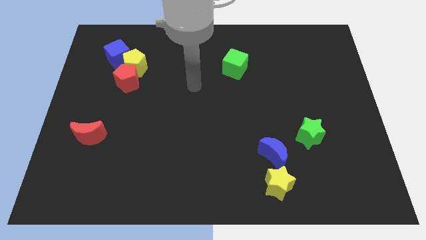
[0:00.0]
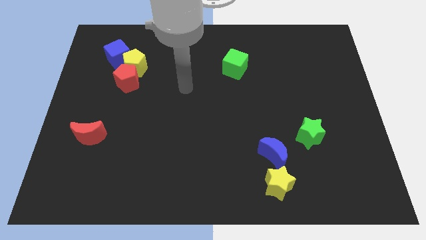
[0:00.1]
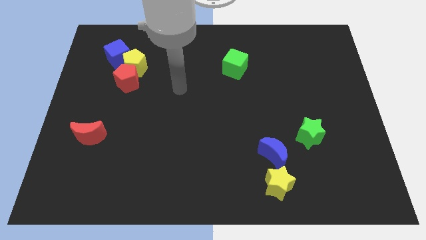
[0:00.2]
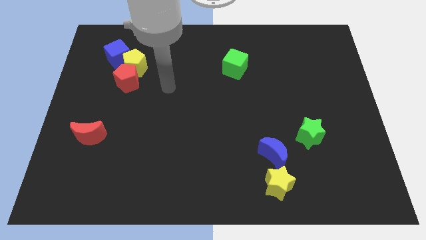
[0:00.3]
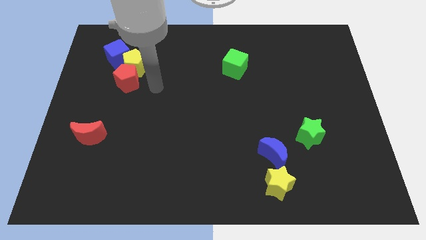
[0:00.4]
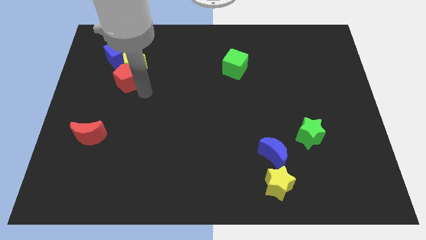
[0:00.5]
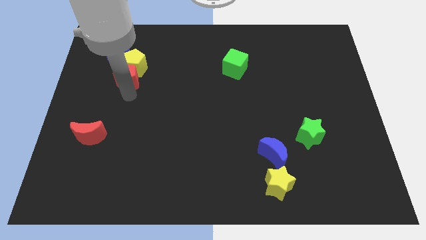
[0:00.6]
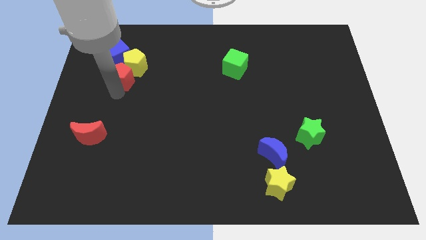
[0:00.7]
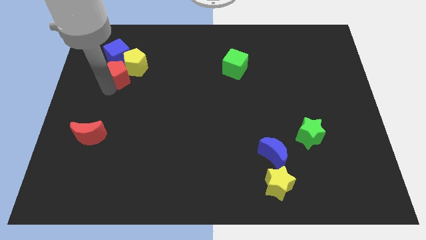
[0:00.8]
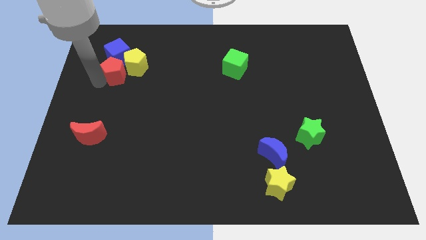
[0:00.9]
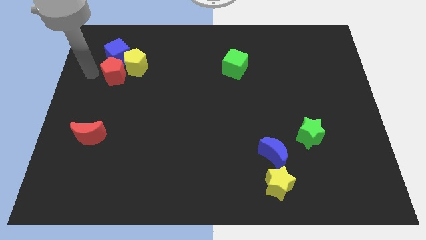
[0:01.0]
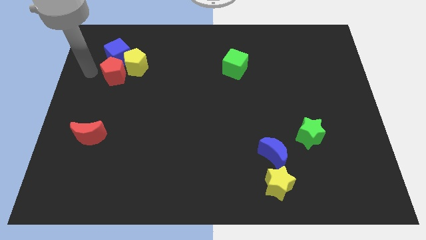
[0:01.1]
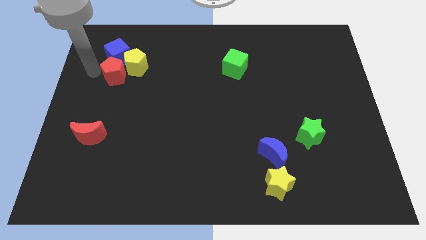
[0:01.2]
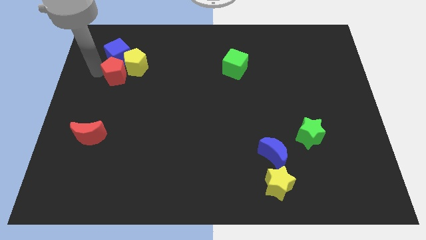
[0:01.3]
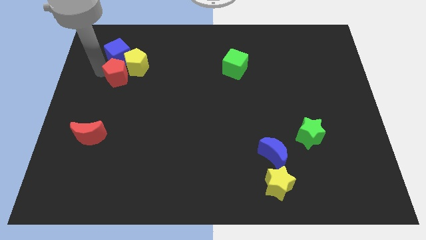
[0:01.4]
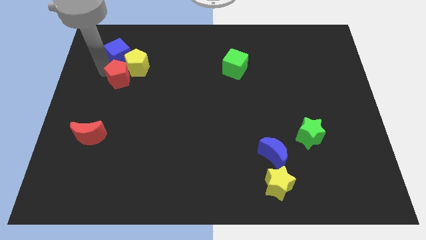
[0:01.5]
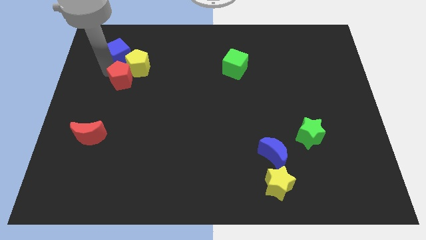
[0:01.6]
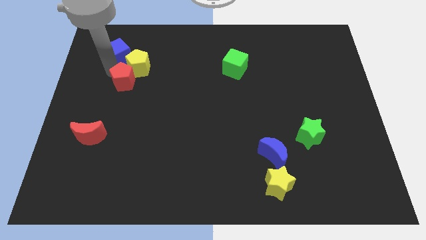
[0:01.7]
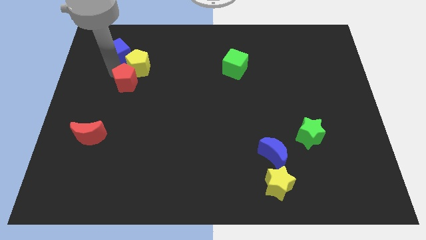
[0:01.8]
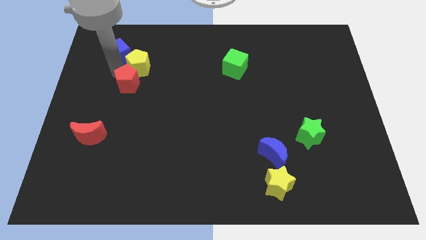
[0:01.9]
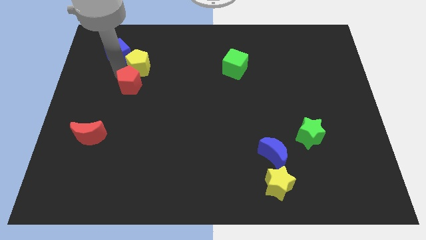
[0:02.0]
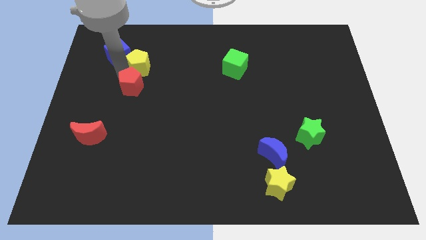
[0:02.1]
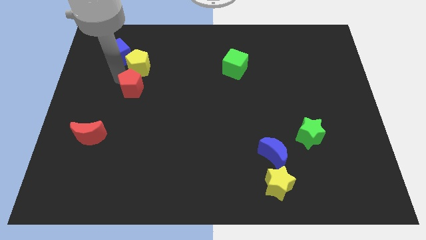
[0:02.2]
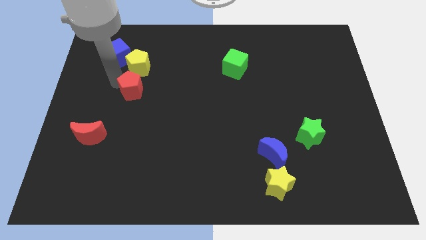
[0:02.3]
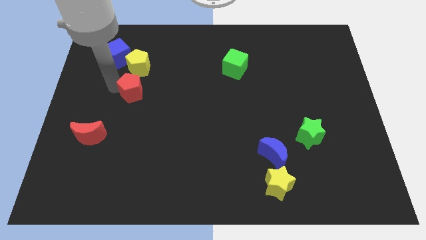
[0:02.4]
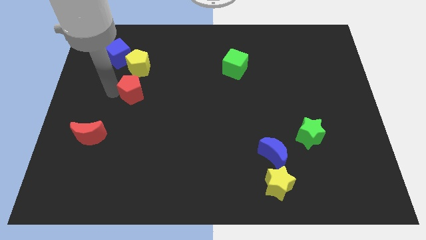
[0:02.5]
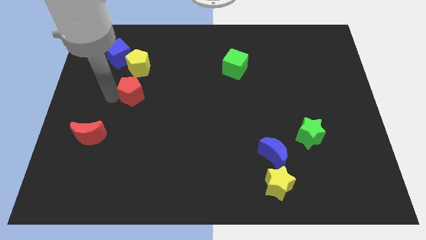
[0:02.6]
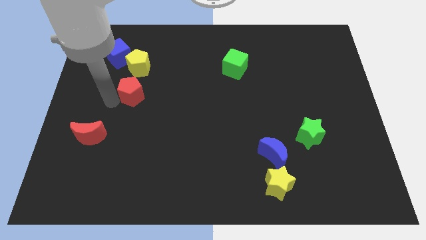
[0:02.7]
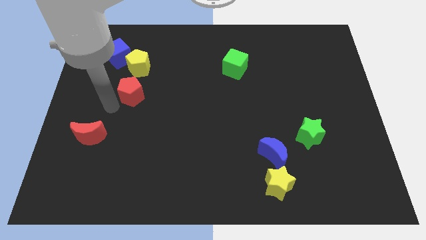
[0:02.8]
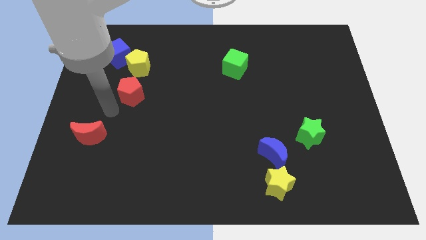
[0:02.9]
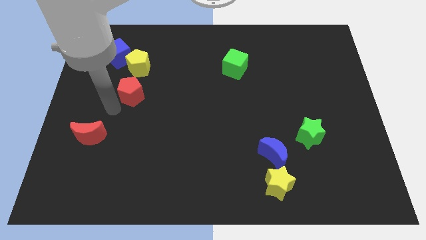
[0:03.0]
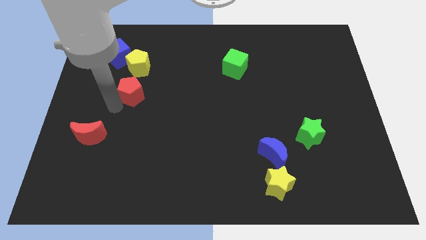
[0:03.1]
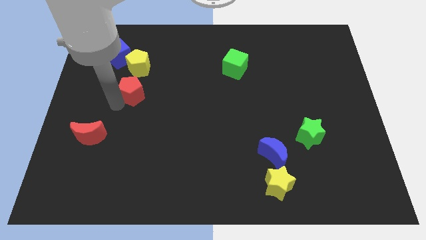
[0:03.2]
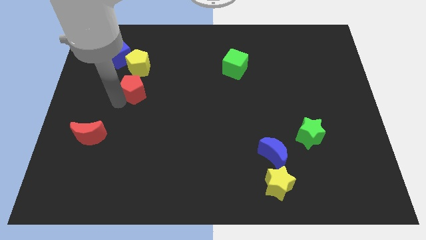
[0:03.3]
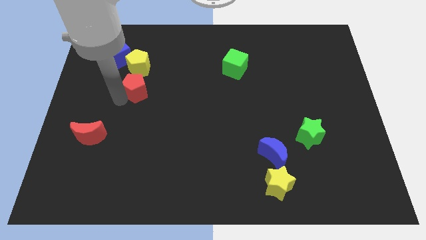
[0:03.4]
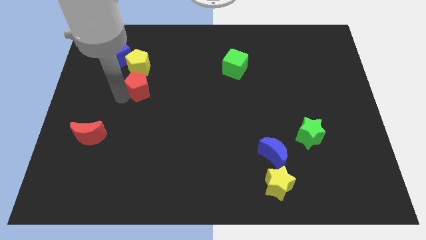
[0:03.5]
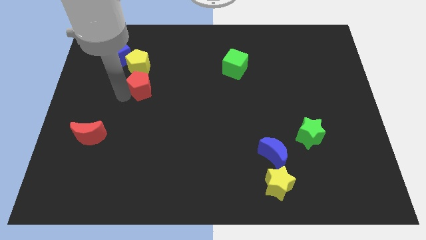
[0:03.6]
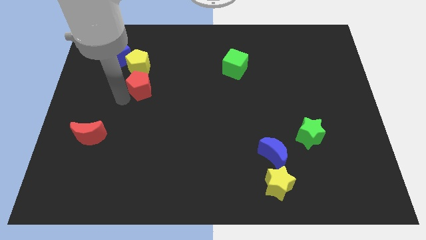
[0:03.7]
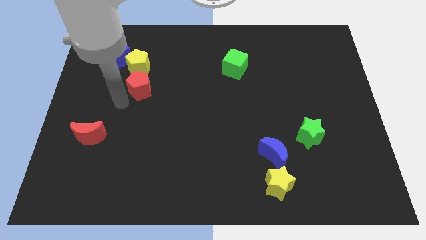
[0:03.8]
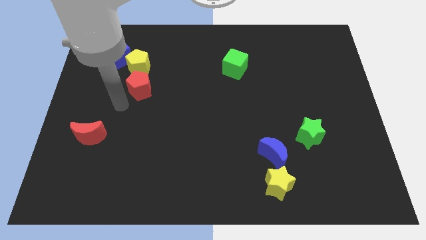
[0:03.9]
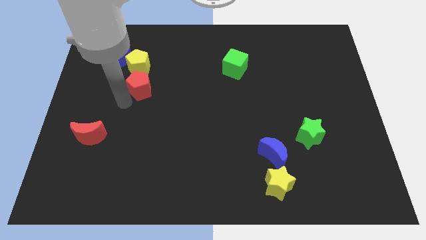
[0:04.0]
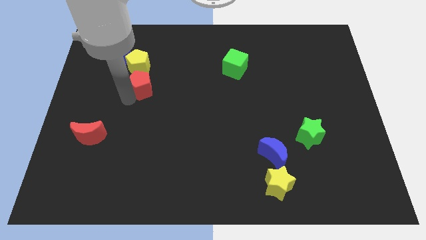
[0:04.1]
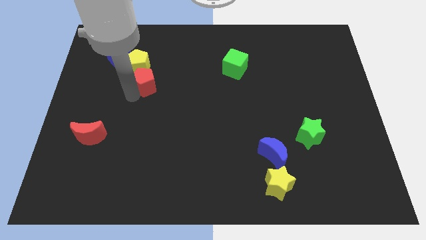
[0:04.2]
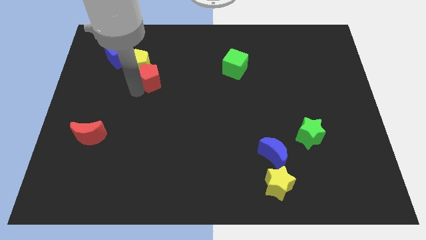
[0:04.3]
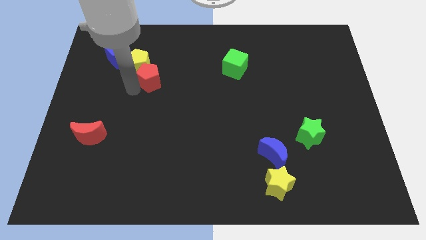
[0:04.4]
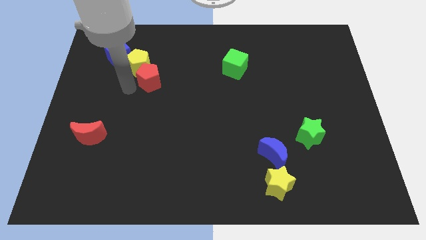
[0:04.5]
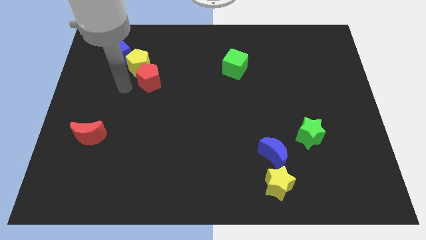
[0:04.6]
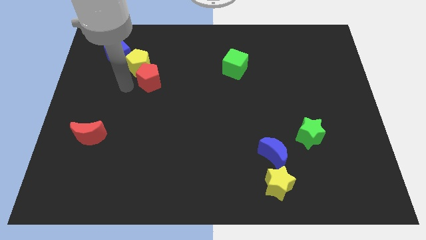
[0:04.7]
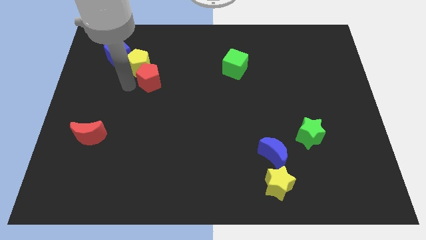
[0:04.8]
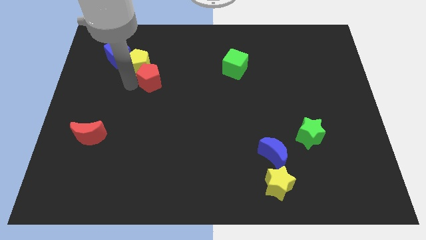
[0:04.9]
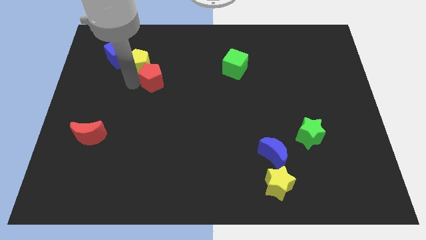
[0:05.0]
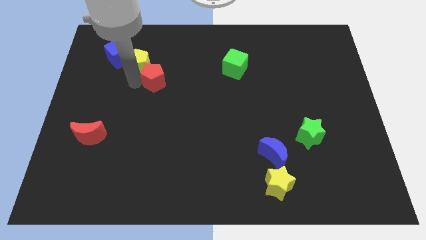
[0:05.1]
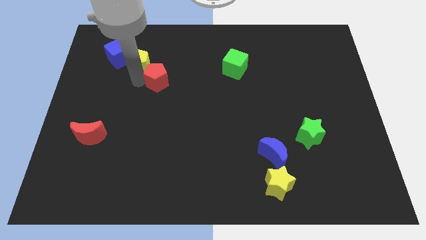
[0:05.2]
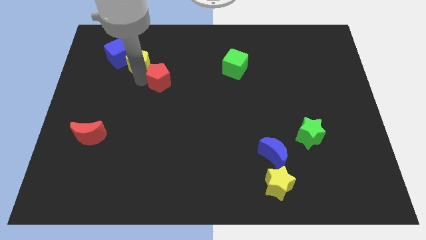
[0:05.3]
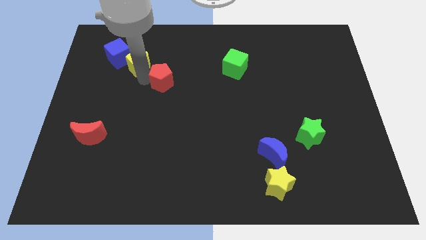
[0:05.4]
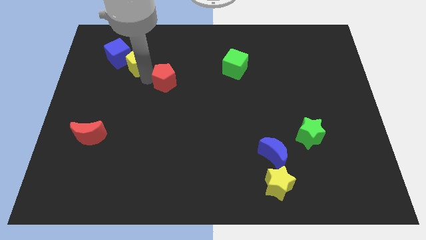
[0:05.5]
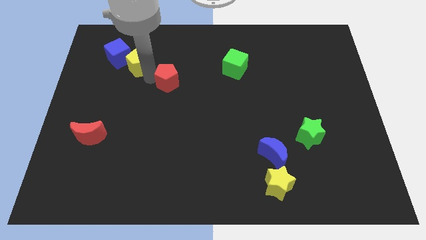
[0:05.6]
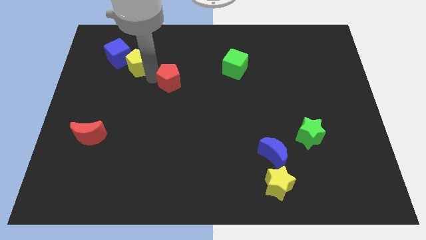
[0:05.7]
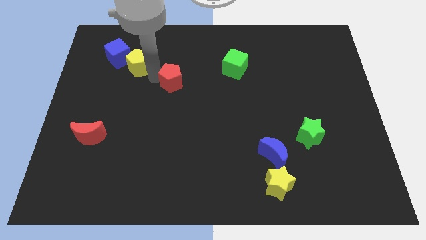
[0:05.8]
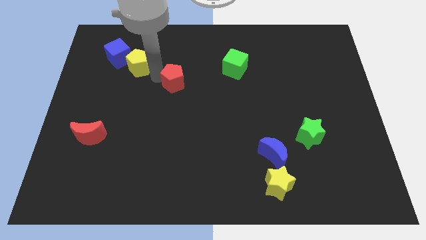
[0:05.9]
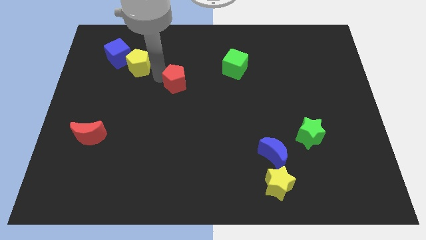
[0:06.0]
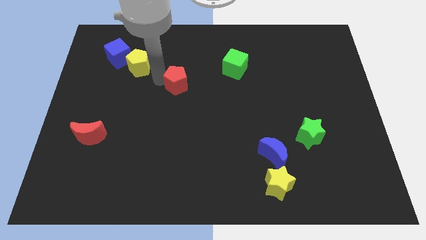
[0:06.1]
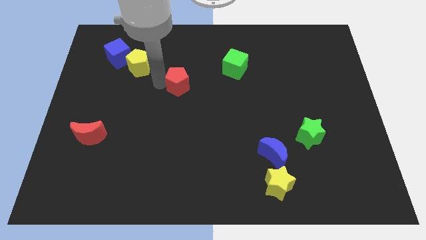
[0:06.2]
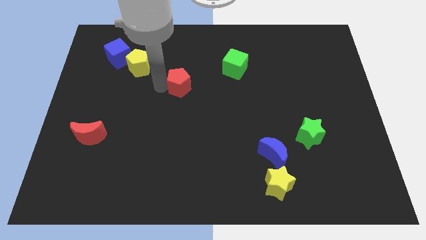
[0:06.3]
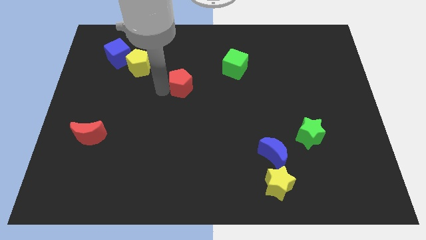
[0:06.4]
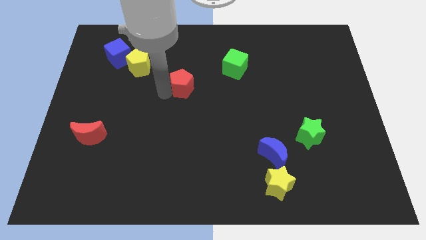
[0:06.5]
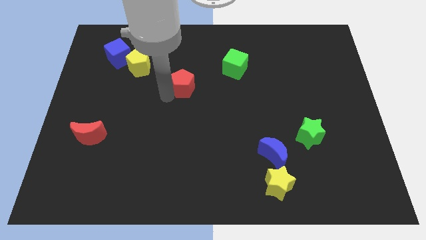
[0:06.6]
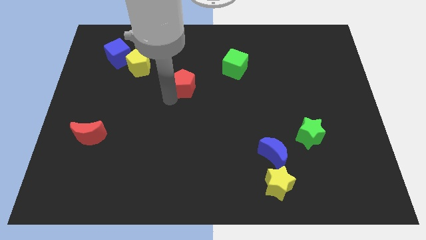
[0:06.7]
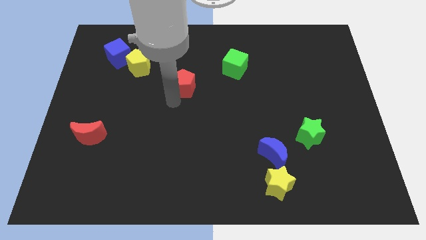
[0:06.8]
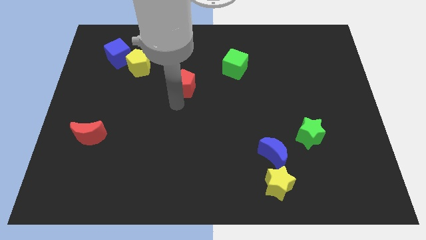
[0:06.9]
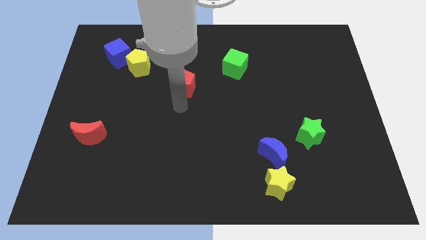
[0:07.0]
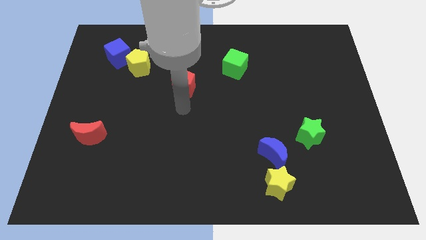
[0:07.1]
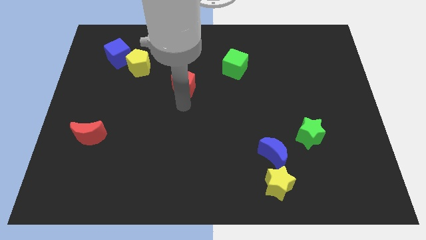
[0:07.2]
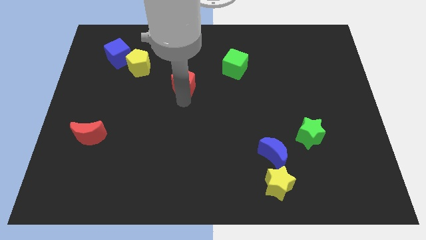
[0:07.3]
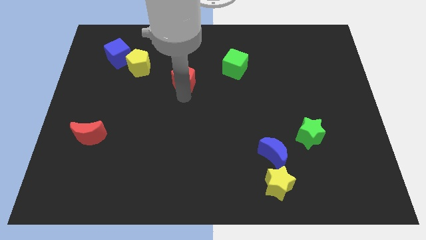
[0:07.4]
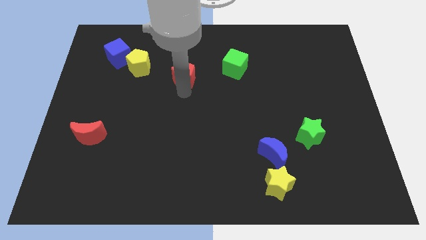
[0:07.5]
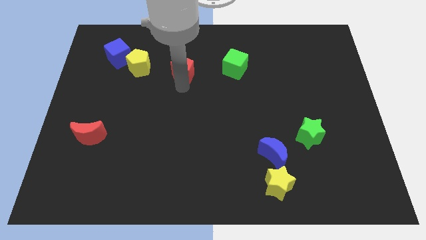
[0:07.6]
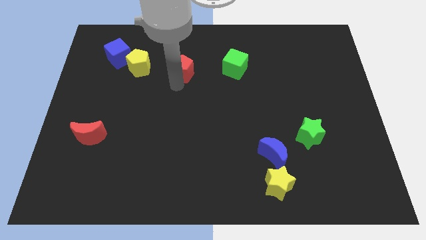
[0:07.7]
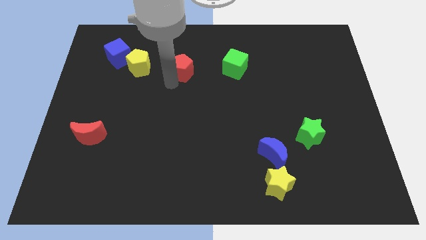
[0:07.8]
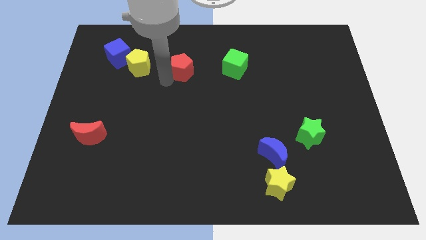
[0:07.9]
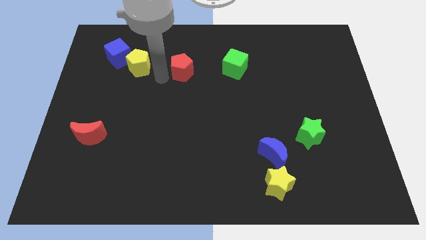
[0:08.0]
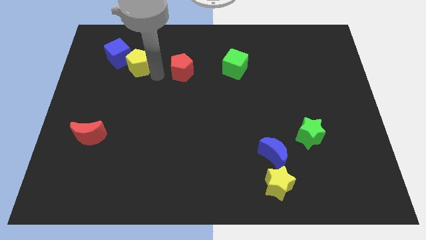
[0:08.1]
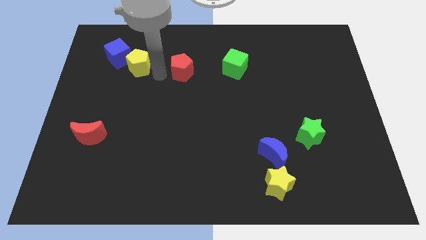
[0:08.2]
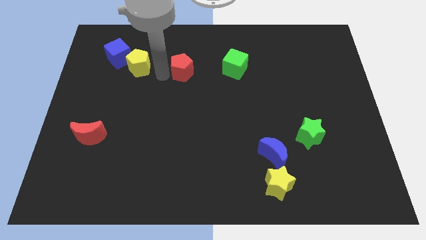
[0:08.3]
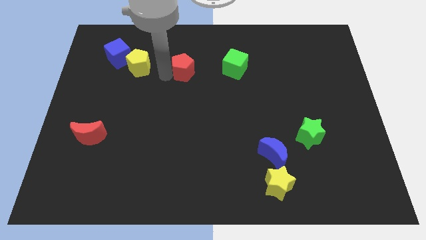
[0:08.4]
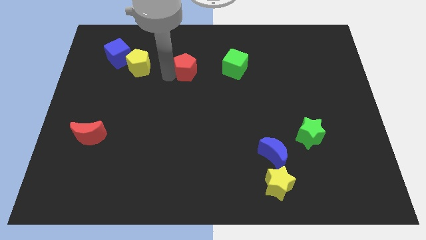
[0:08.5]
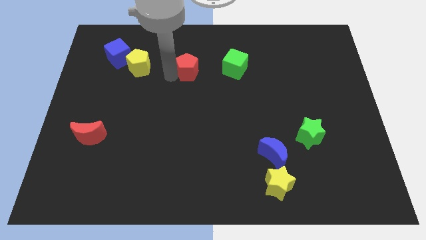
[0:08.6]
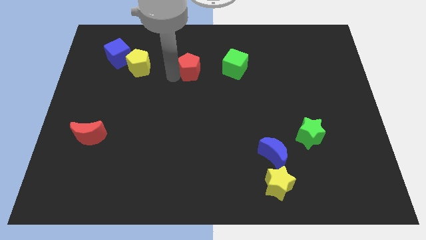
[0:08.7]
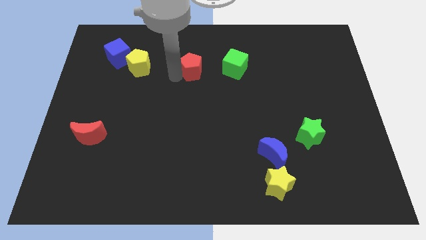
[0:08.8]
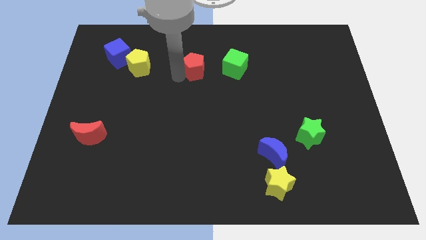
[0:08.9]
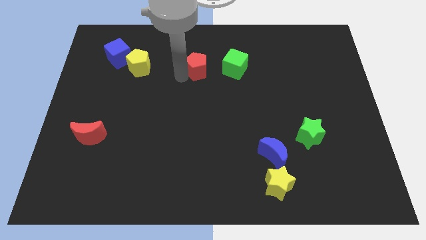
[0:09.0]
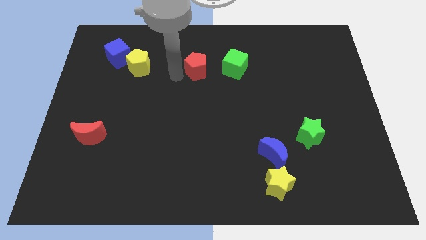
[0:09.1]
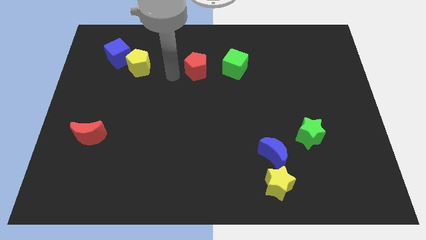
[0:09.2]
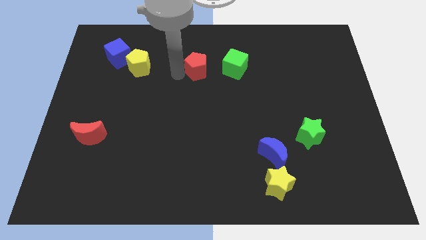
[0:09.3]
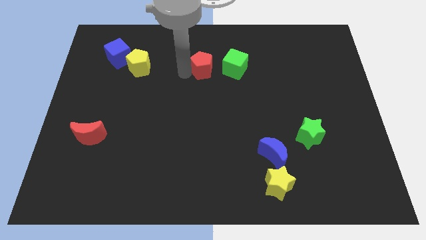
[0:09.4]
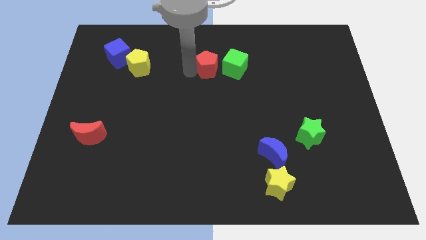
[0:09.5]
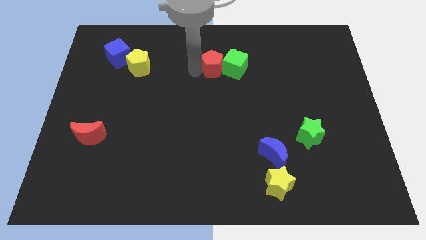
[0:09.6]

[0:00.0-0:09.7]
slide the red pentagon close to the green cube
